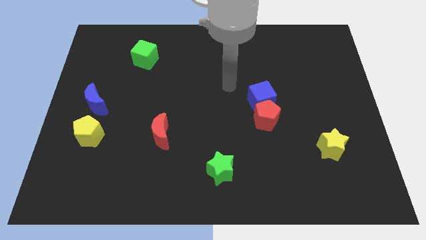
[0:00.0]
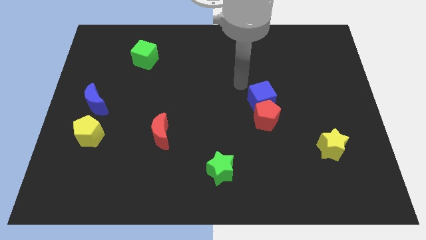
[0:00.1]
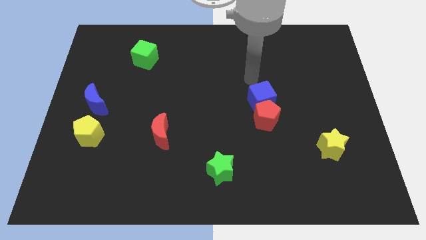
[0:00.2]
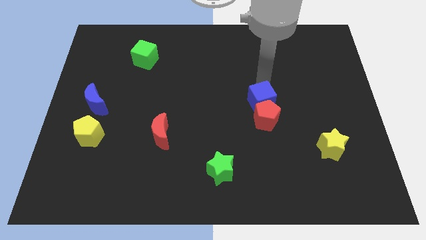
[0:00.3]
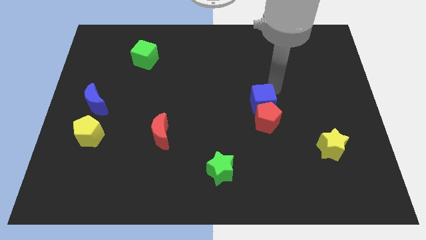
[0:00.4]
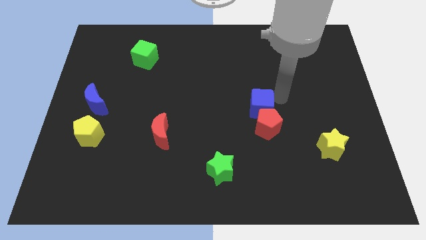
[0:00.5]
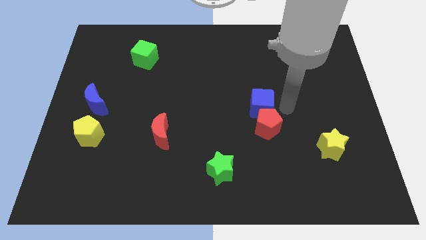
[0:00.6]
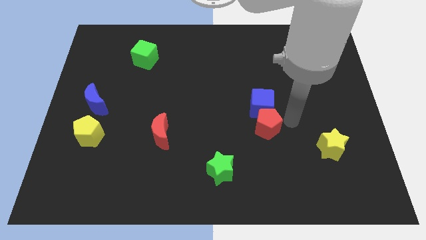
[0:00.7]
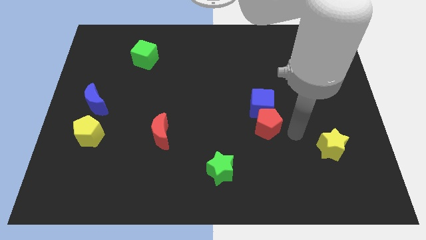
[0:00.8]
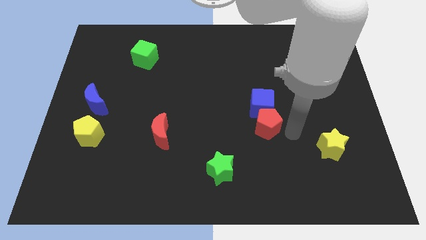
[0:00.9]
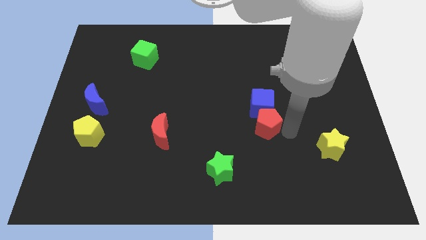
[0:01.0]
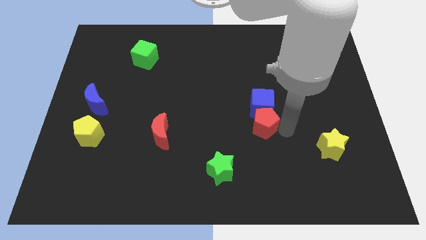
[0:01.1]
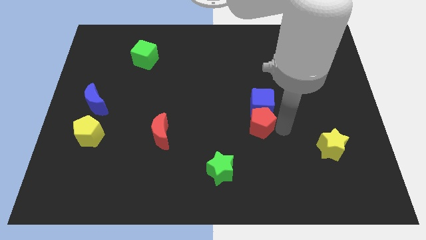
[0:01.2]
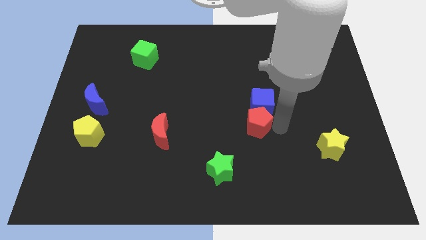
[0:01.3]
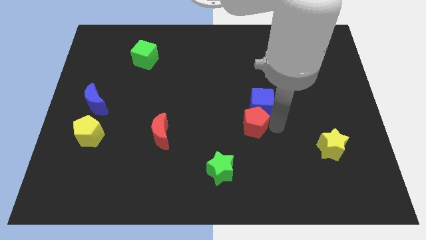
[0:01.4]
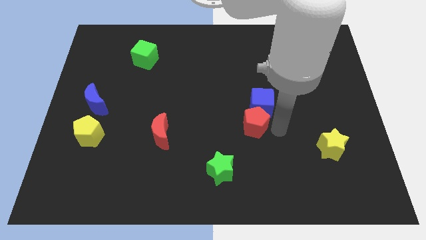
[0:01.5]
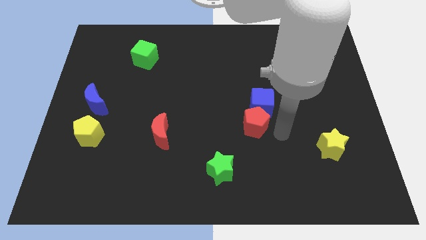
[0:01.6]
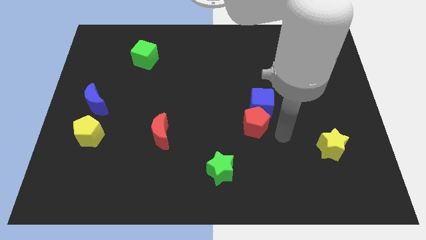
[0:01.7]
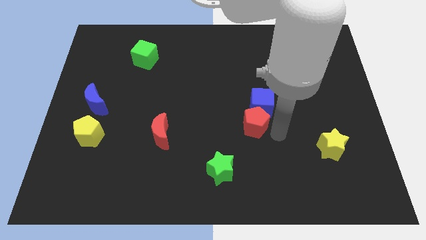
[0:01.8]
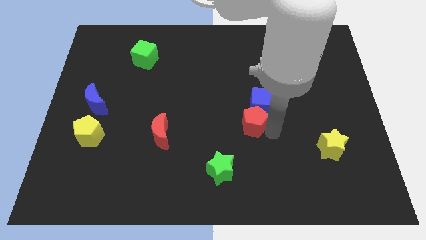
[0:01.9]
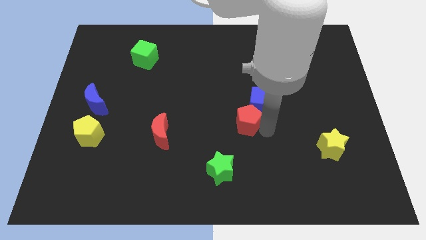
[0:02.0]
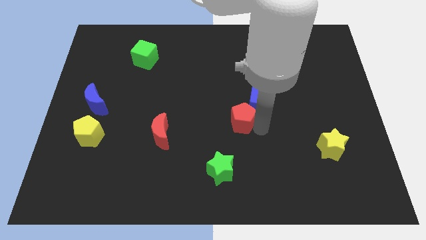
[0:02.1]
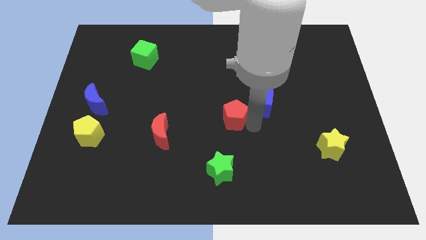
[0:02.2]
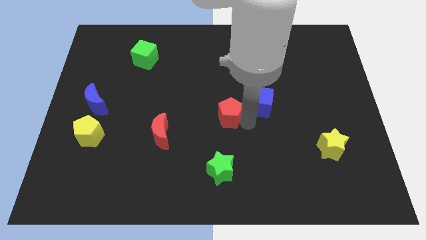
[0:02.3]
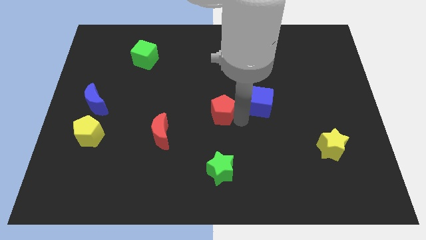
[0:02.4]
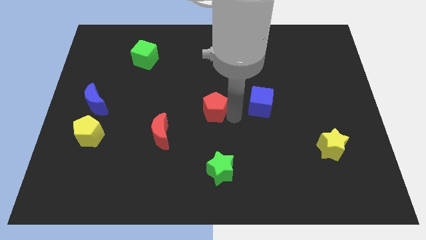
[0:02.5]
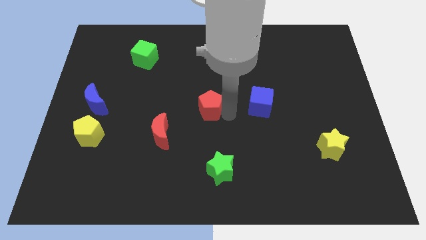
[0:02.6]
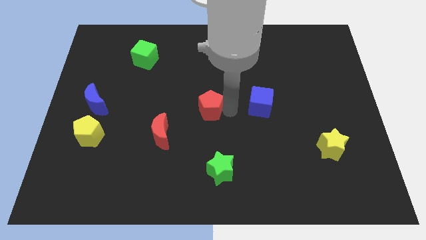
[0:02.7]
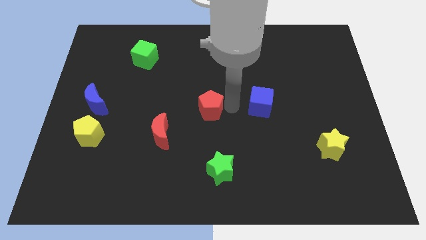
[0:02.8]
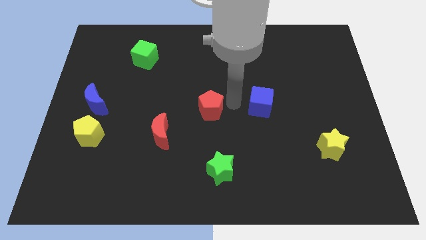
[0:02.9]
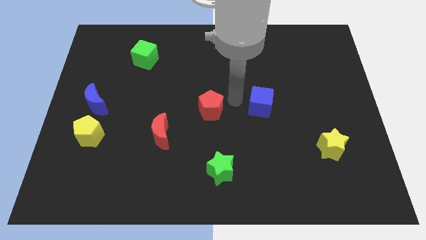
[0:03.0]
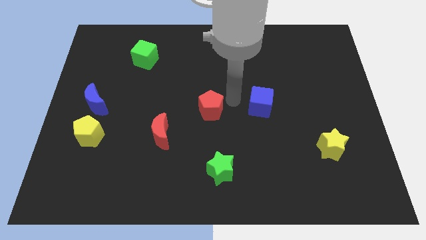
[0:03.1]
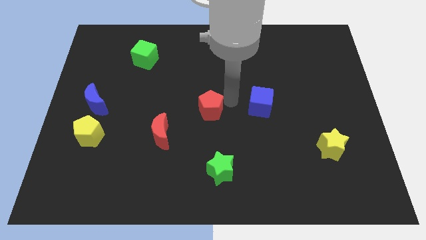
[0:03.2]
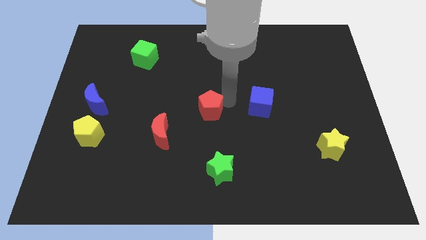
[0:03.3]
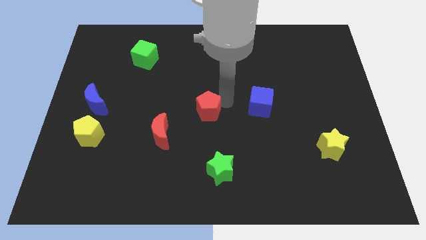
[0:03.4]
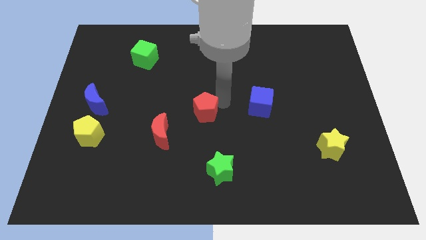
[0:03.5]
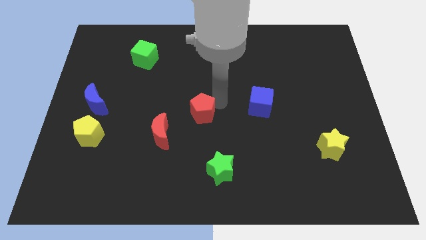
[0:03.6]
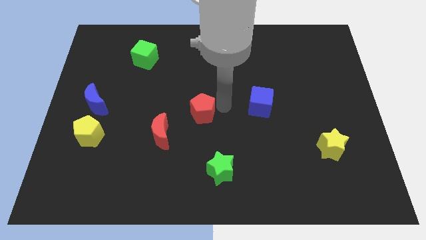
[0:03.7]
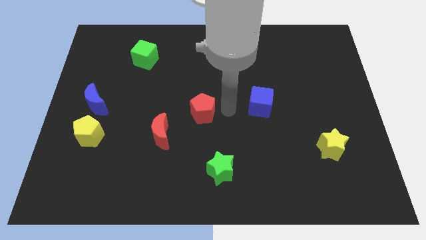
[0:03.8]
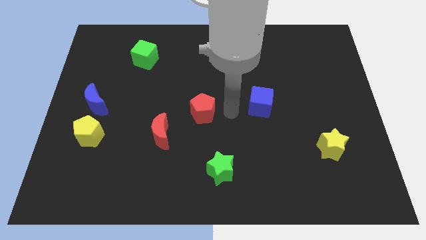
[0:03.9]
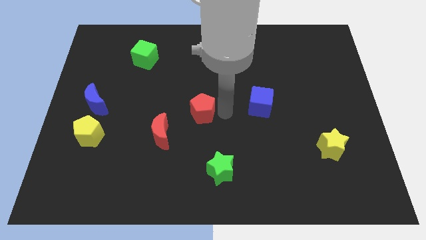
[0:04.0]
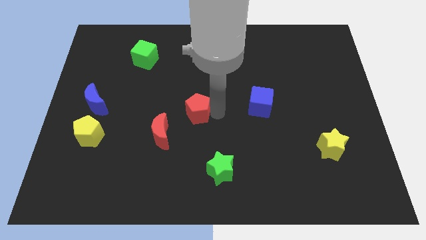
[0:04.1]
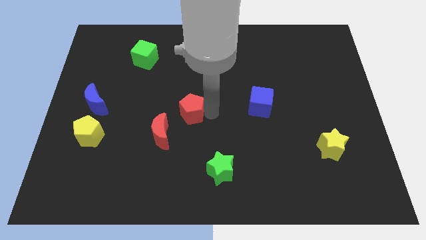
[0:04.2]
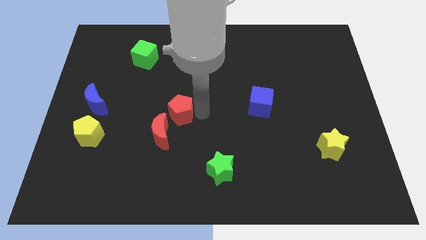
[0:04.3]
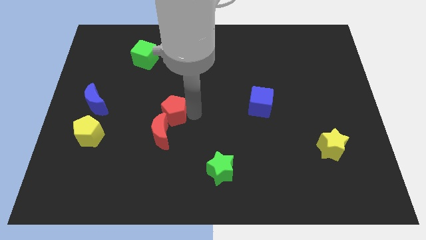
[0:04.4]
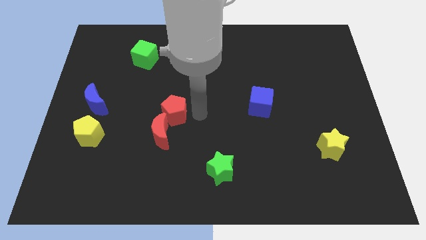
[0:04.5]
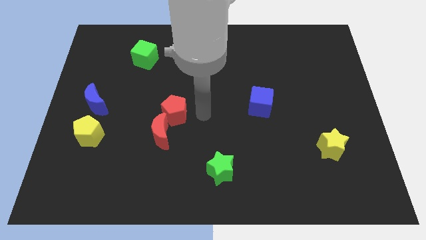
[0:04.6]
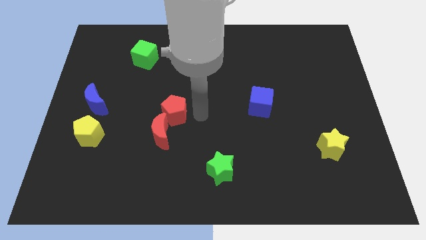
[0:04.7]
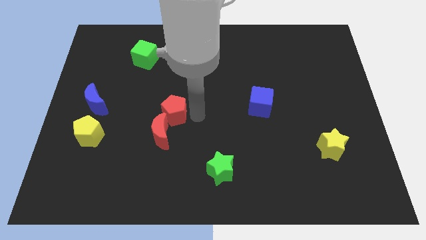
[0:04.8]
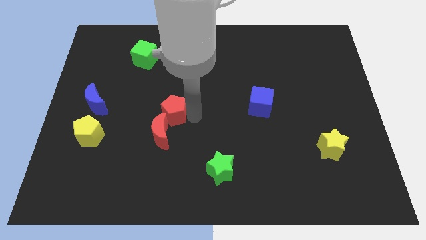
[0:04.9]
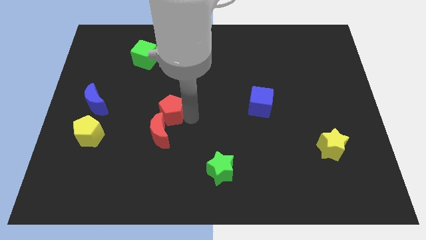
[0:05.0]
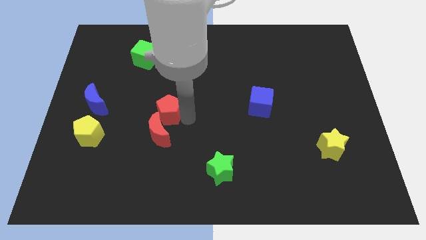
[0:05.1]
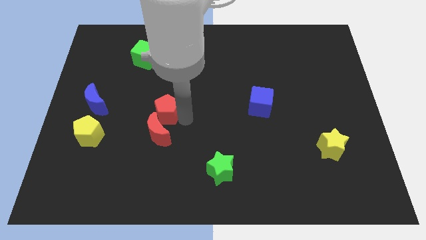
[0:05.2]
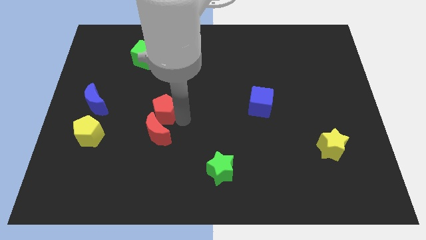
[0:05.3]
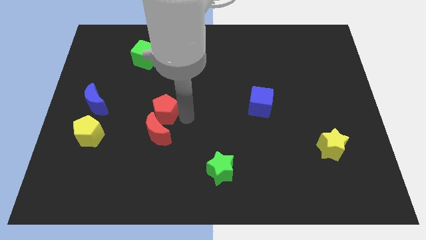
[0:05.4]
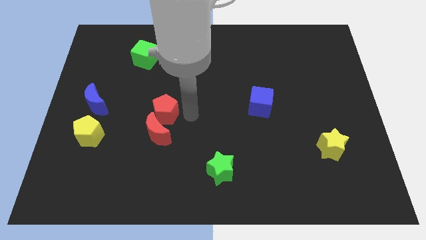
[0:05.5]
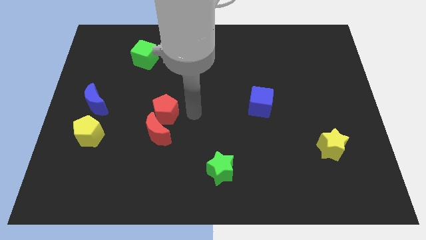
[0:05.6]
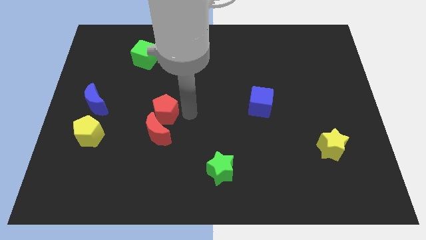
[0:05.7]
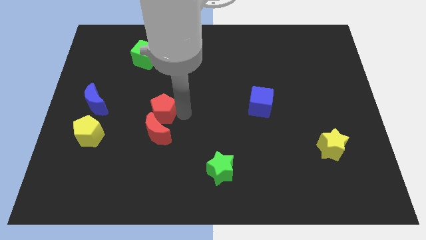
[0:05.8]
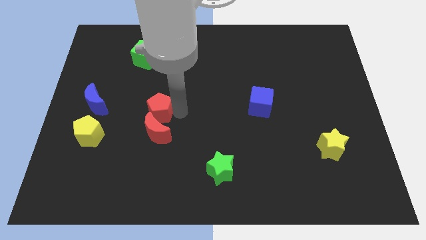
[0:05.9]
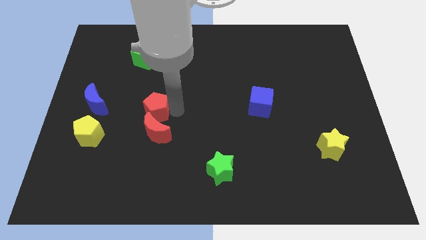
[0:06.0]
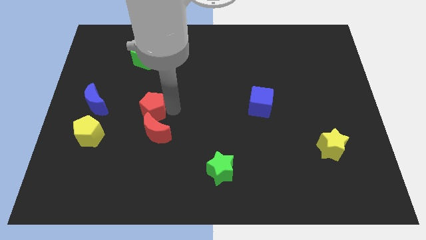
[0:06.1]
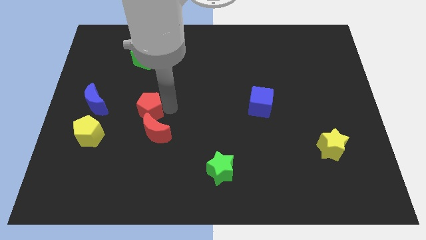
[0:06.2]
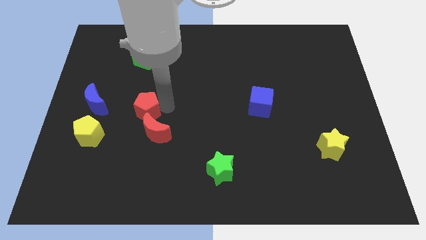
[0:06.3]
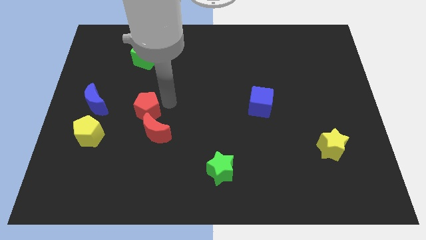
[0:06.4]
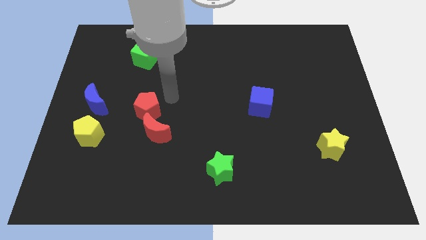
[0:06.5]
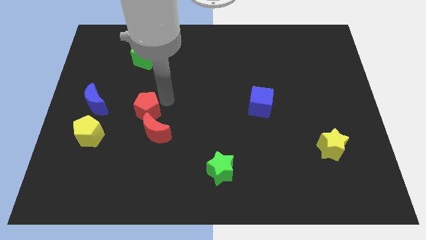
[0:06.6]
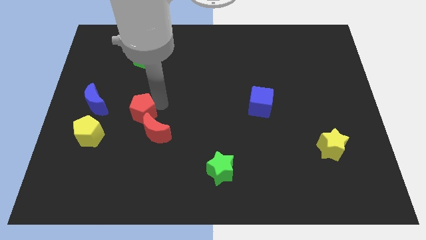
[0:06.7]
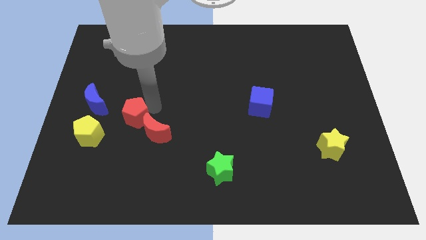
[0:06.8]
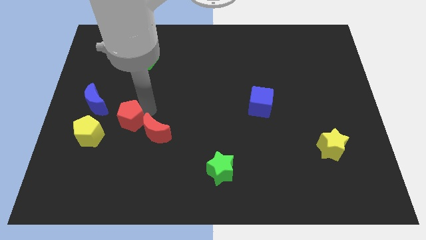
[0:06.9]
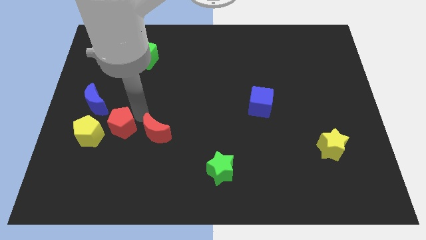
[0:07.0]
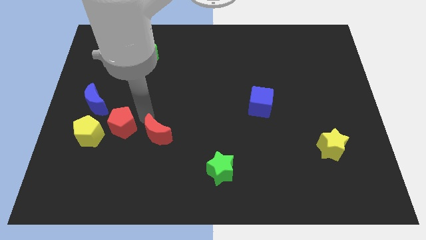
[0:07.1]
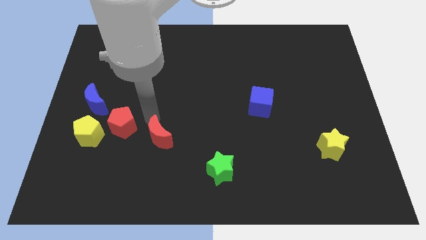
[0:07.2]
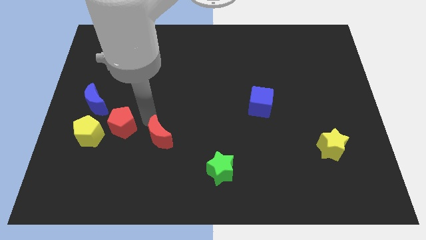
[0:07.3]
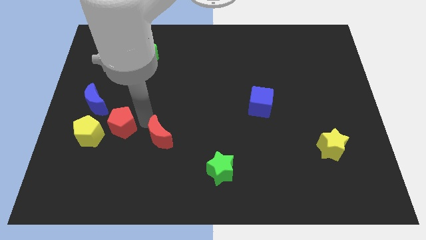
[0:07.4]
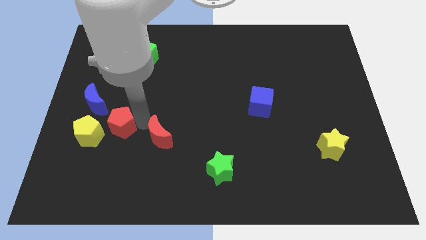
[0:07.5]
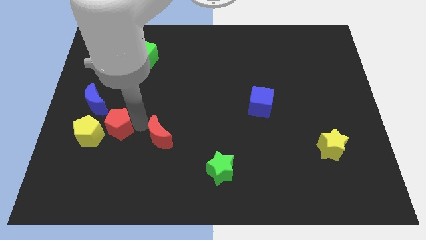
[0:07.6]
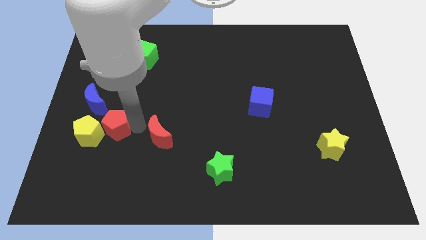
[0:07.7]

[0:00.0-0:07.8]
move the red pentagon towards the yellow pentagon

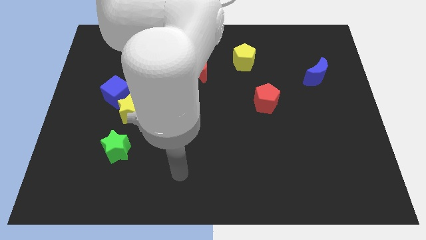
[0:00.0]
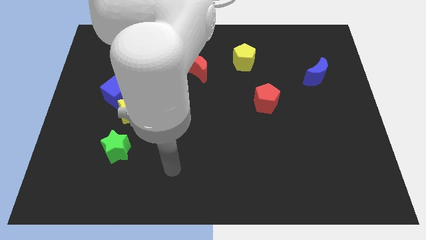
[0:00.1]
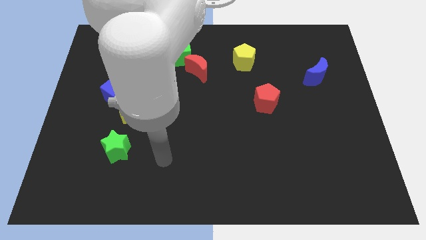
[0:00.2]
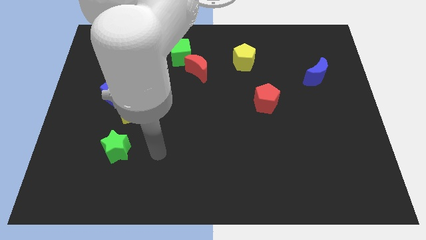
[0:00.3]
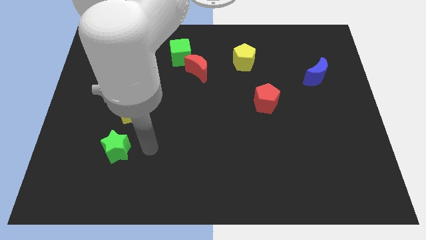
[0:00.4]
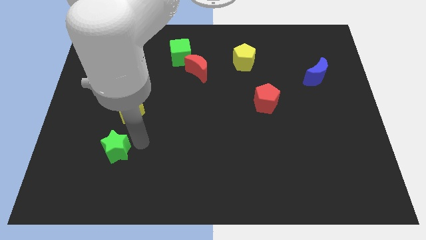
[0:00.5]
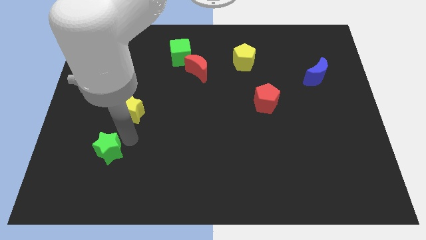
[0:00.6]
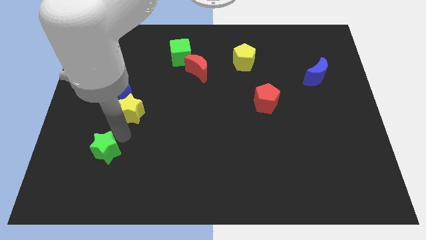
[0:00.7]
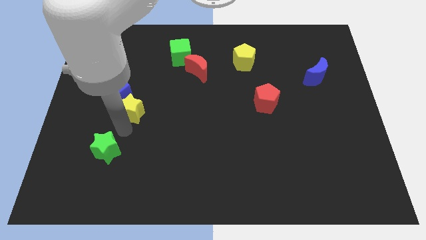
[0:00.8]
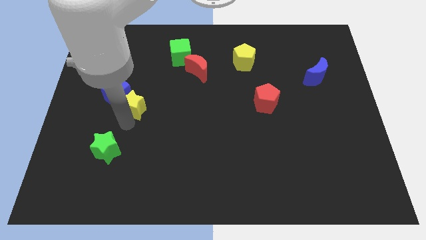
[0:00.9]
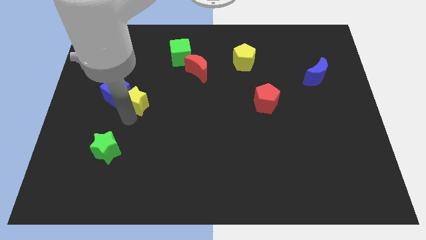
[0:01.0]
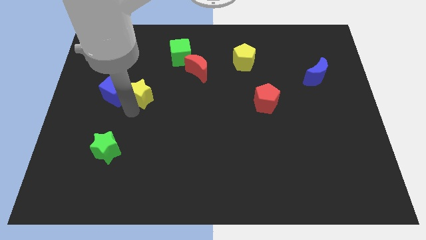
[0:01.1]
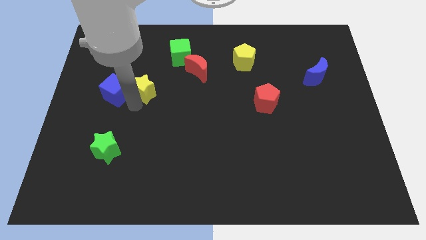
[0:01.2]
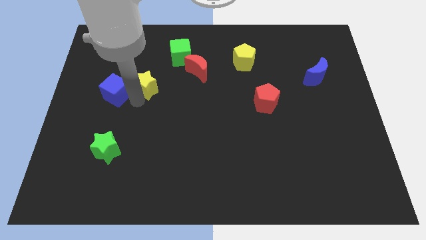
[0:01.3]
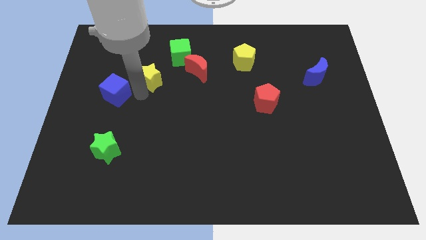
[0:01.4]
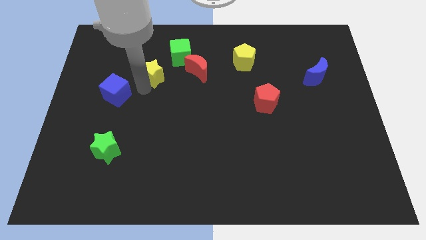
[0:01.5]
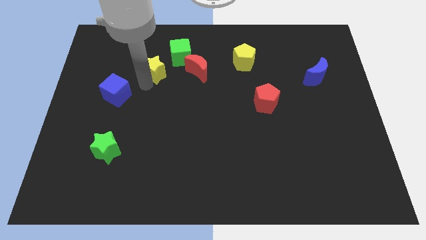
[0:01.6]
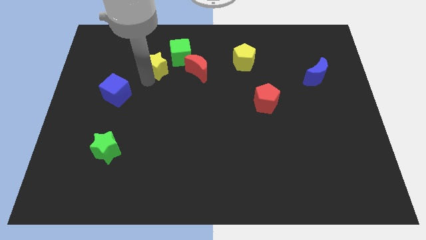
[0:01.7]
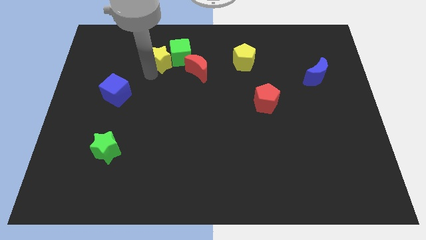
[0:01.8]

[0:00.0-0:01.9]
push the yellow star towards the green cube
